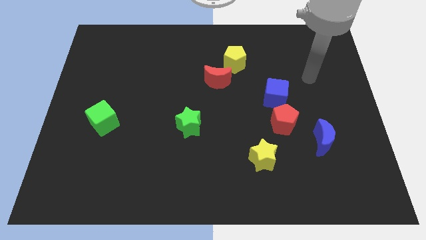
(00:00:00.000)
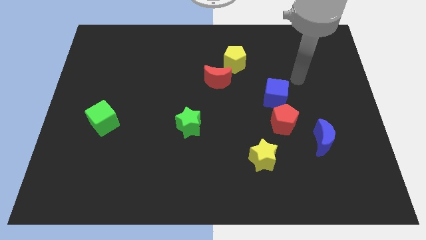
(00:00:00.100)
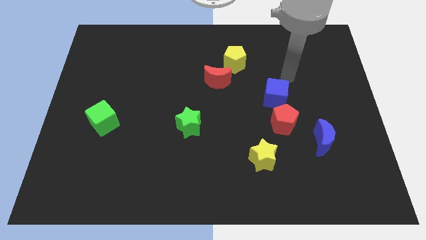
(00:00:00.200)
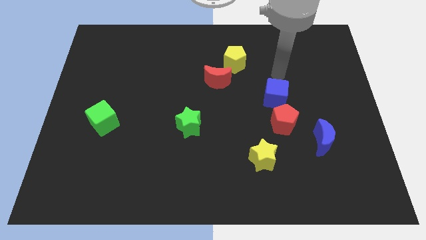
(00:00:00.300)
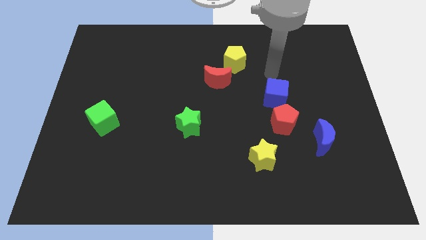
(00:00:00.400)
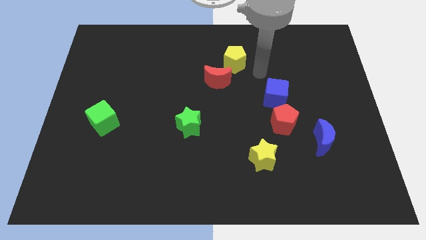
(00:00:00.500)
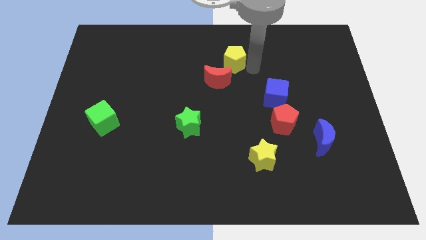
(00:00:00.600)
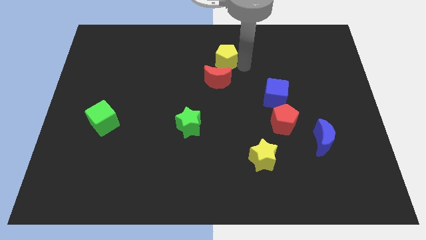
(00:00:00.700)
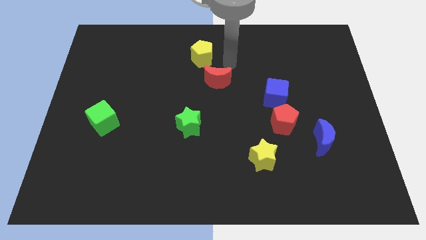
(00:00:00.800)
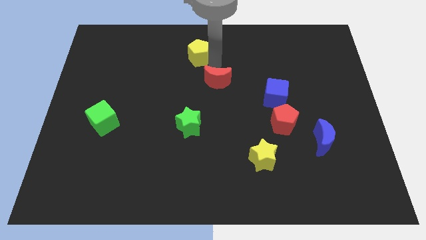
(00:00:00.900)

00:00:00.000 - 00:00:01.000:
separate the red moon from the yellow pentagon

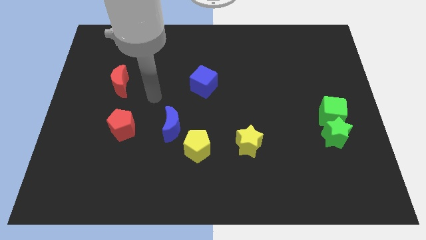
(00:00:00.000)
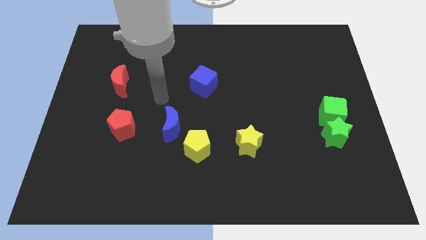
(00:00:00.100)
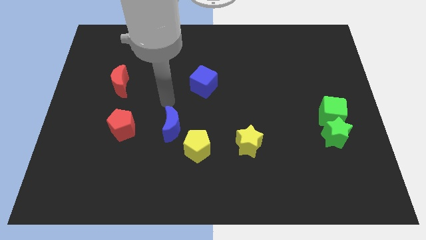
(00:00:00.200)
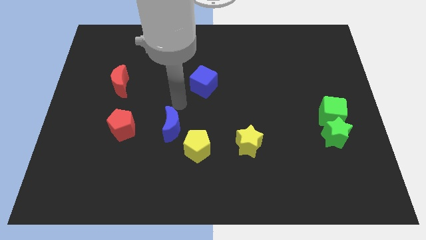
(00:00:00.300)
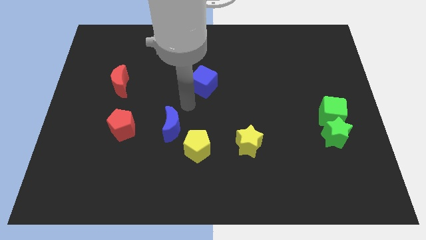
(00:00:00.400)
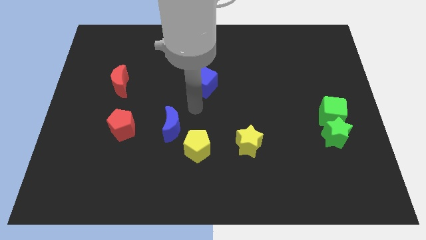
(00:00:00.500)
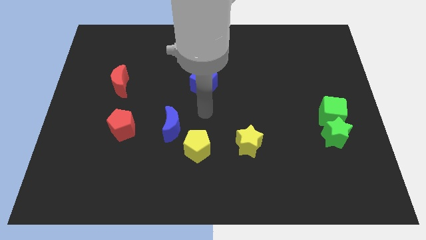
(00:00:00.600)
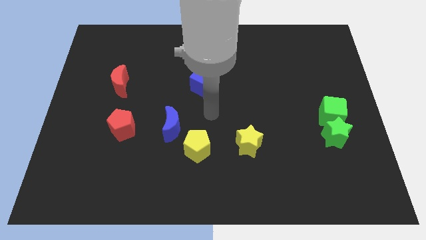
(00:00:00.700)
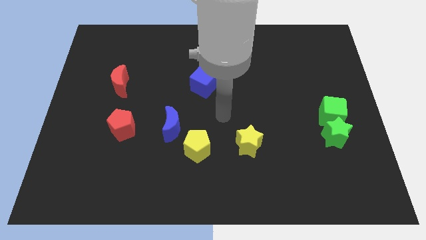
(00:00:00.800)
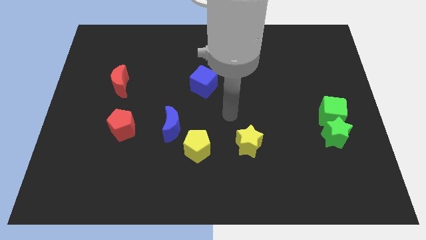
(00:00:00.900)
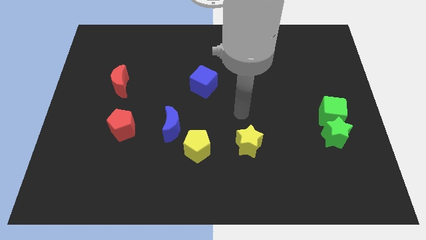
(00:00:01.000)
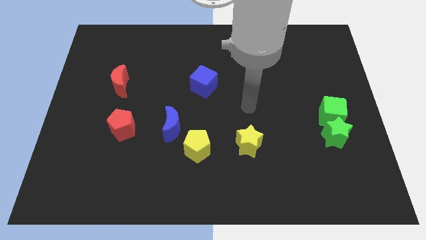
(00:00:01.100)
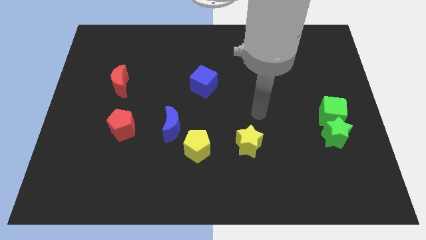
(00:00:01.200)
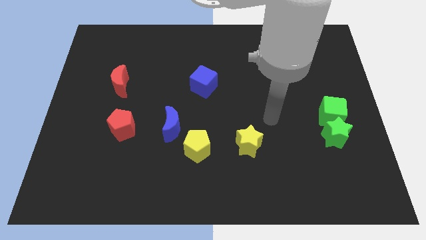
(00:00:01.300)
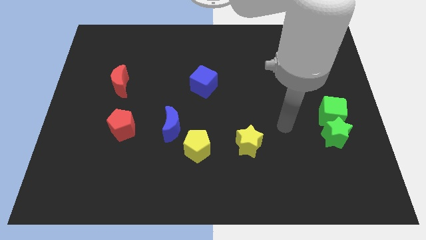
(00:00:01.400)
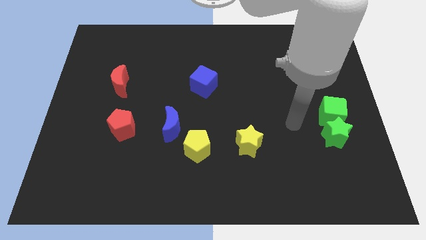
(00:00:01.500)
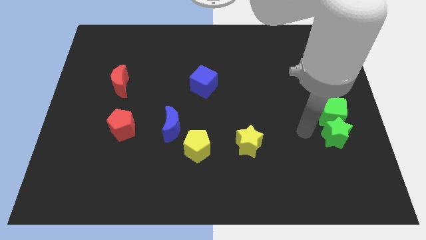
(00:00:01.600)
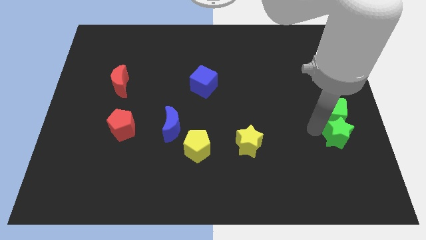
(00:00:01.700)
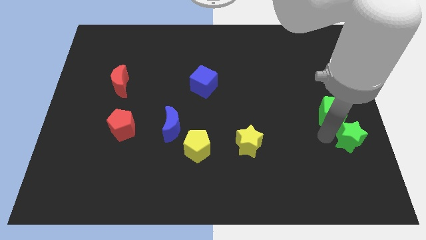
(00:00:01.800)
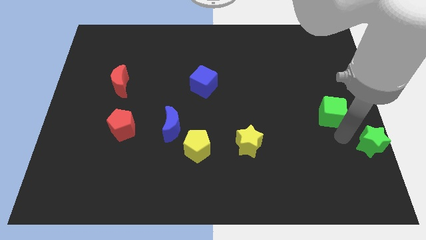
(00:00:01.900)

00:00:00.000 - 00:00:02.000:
pull the green cube apart from the green star

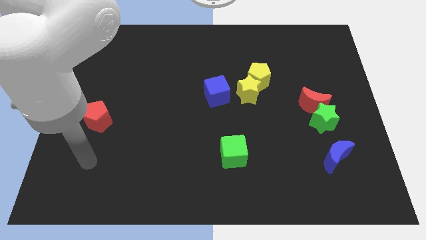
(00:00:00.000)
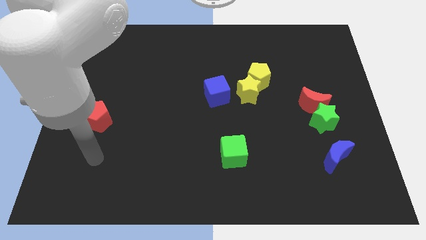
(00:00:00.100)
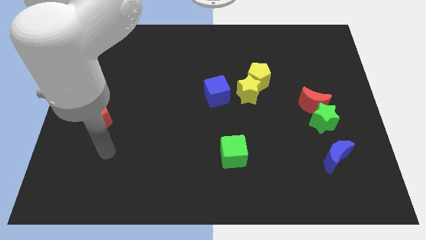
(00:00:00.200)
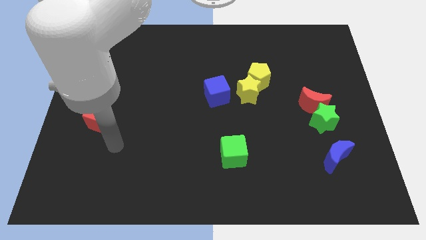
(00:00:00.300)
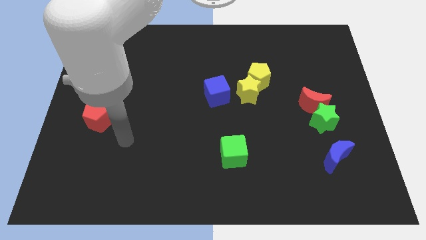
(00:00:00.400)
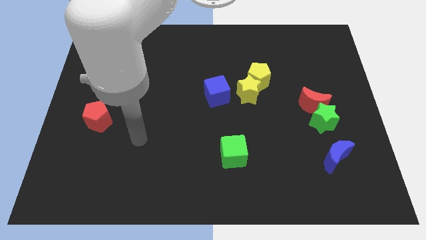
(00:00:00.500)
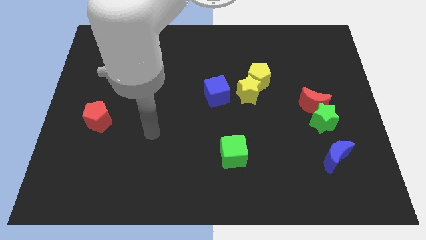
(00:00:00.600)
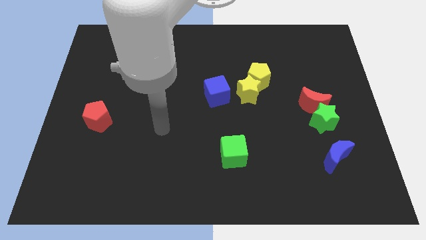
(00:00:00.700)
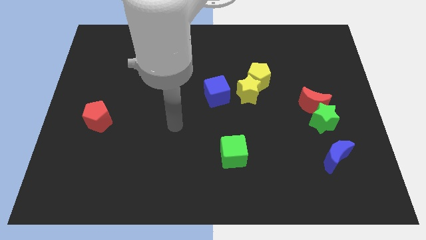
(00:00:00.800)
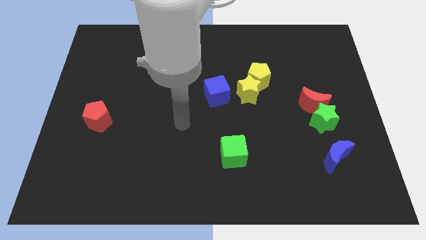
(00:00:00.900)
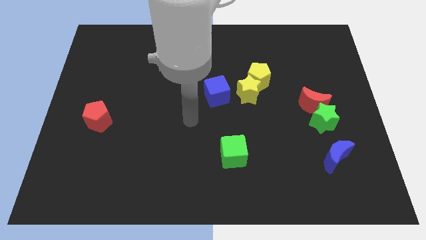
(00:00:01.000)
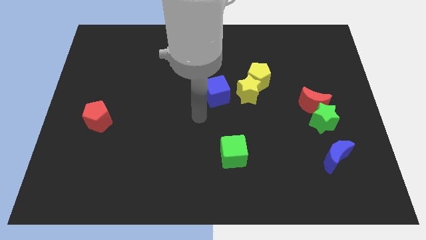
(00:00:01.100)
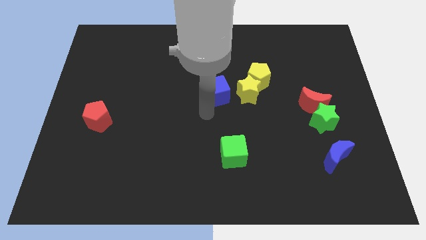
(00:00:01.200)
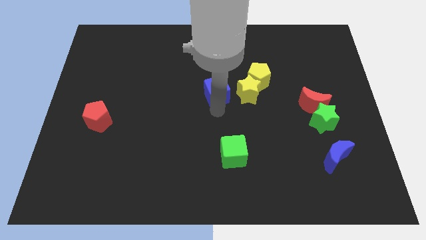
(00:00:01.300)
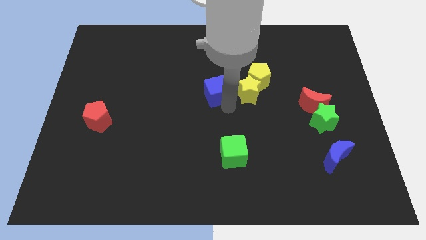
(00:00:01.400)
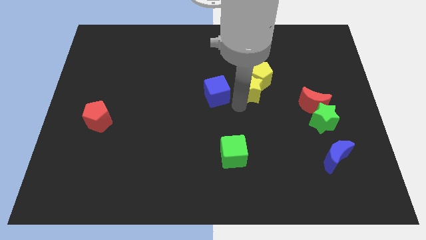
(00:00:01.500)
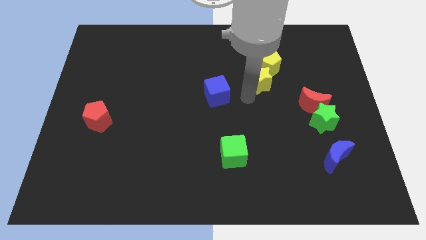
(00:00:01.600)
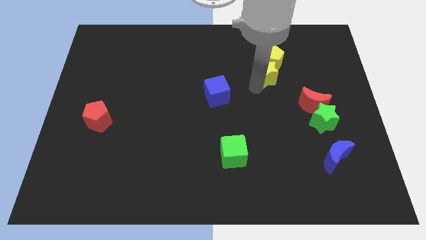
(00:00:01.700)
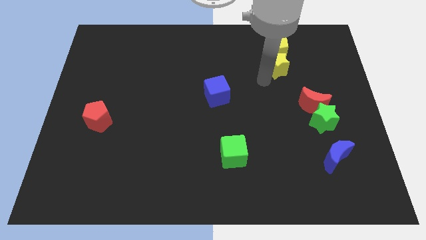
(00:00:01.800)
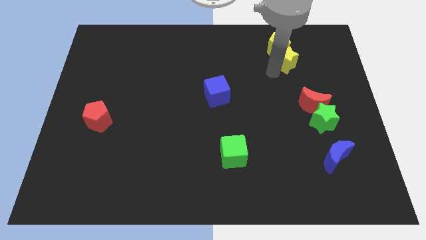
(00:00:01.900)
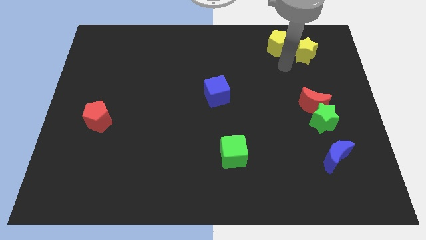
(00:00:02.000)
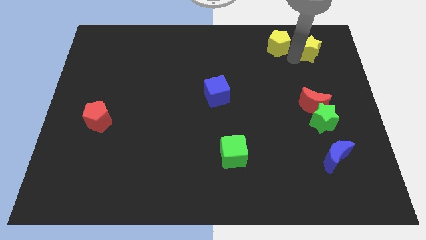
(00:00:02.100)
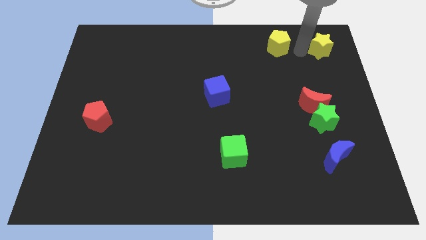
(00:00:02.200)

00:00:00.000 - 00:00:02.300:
move the yellow pentagon away from the yellow star

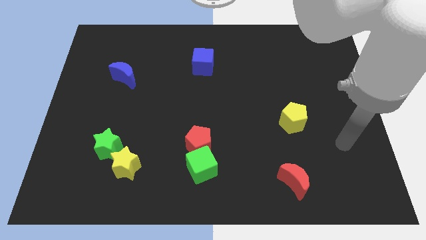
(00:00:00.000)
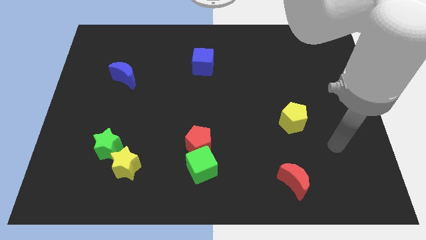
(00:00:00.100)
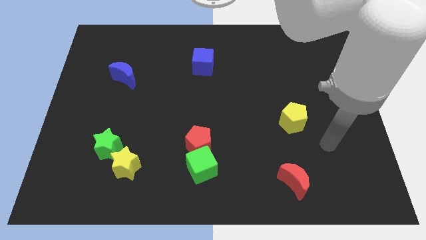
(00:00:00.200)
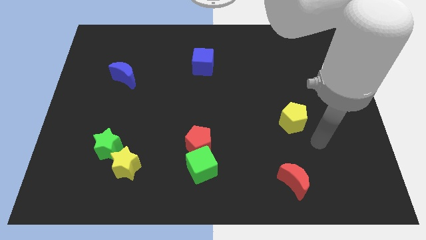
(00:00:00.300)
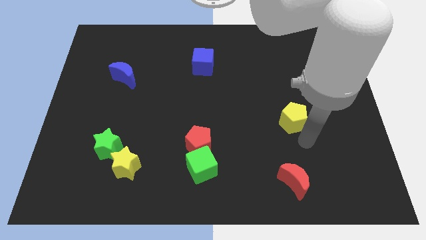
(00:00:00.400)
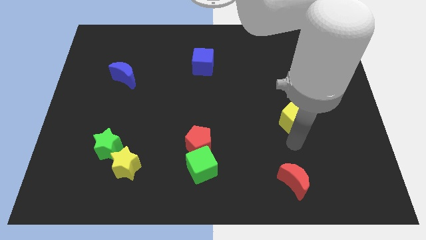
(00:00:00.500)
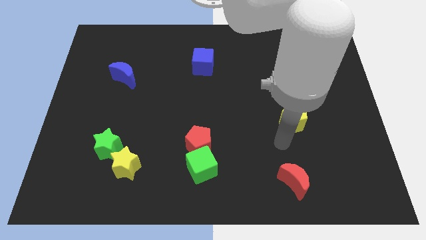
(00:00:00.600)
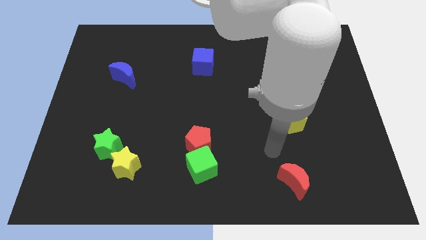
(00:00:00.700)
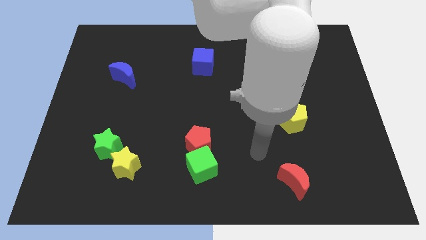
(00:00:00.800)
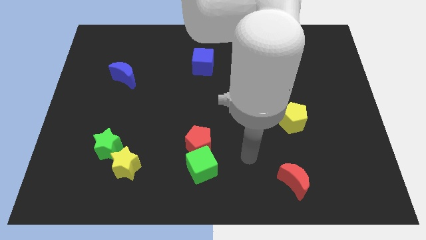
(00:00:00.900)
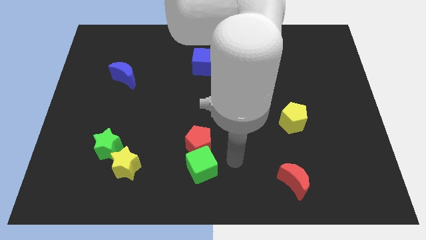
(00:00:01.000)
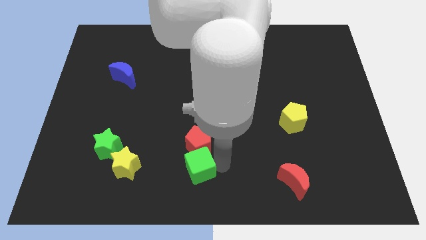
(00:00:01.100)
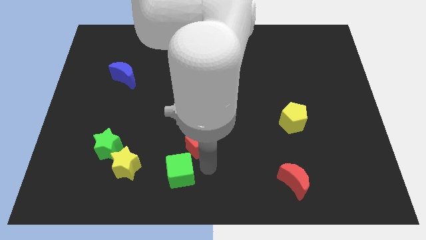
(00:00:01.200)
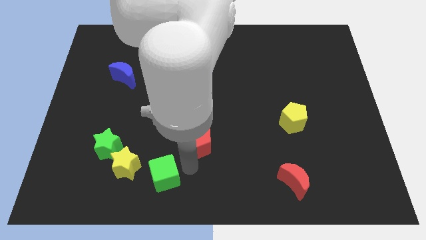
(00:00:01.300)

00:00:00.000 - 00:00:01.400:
pull the red pentagon apart from the green cube

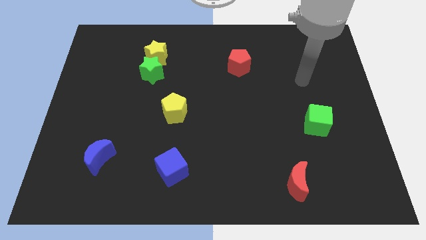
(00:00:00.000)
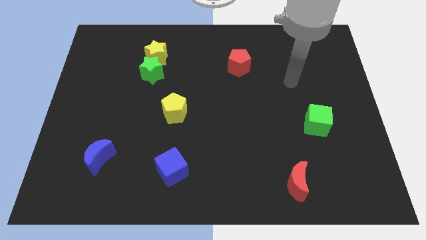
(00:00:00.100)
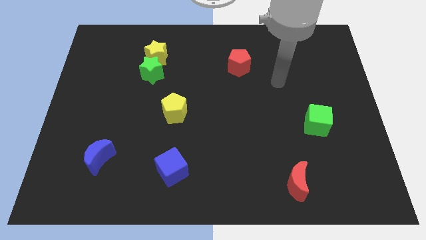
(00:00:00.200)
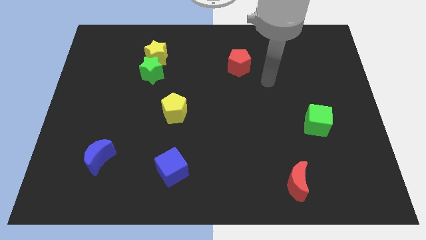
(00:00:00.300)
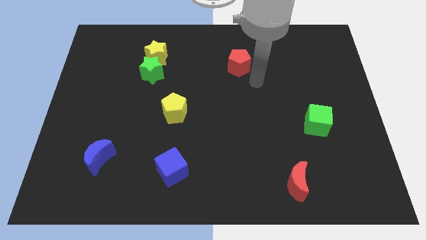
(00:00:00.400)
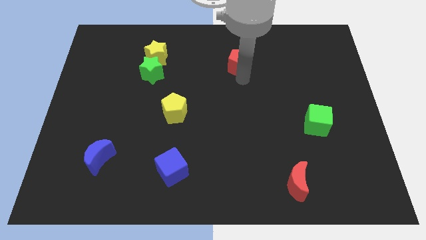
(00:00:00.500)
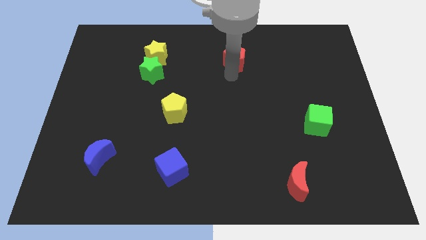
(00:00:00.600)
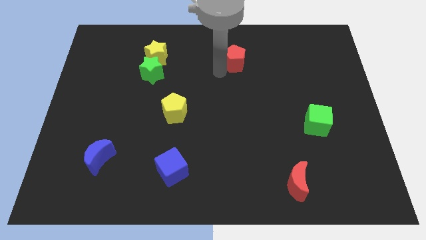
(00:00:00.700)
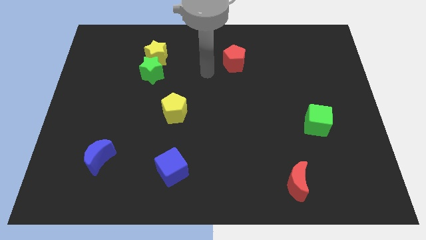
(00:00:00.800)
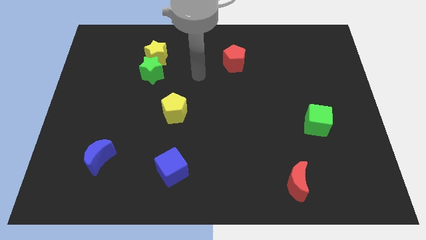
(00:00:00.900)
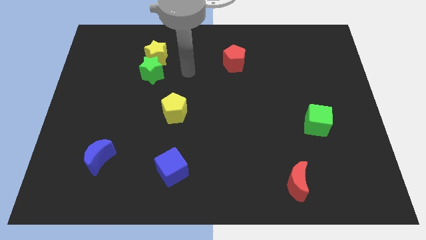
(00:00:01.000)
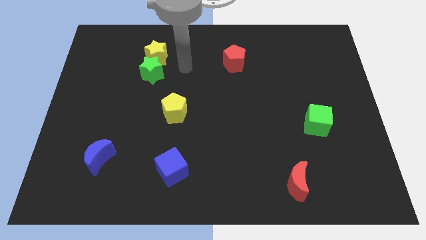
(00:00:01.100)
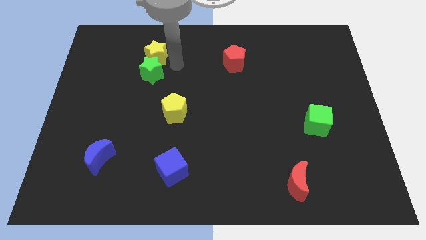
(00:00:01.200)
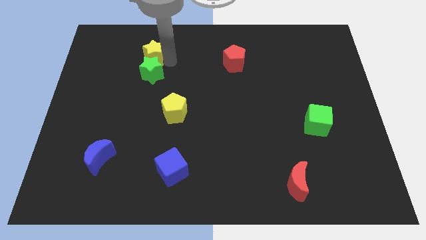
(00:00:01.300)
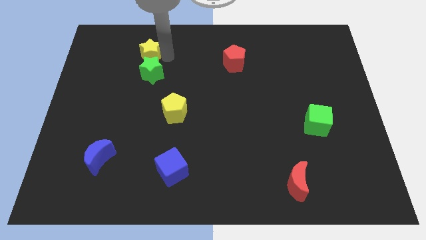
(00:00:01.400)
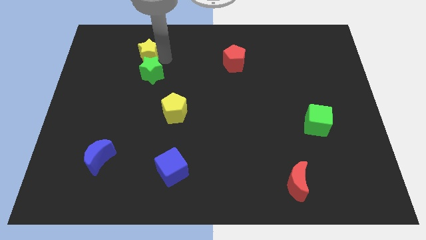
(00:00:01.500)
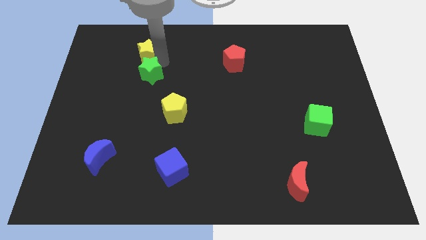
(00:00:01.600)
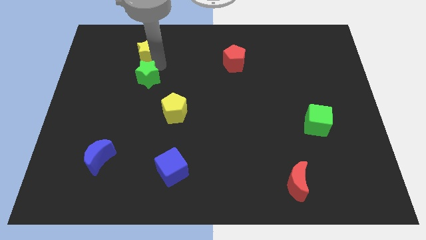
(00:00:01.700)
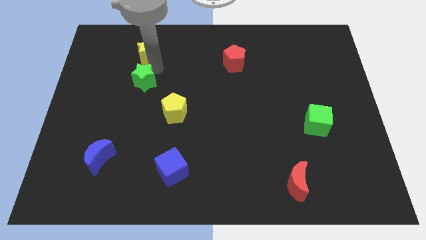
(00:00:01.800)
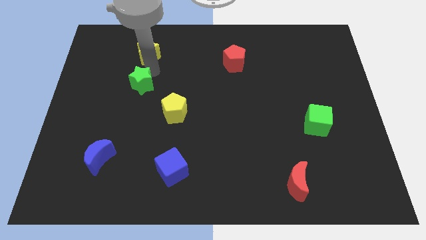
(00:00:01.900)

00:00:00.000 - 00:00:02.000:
pull the green star apart from the yellow star

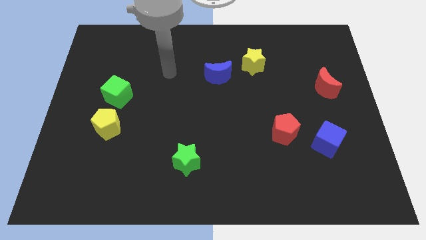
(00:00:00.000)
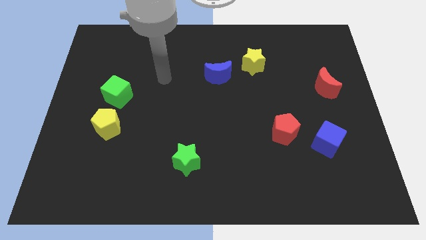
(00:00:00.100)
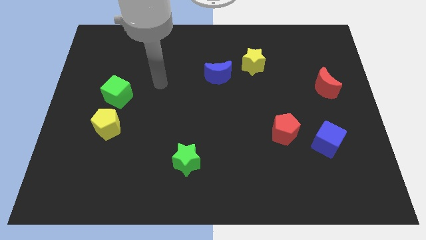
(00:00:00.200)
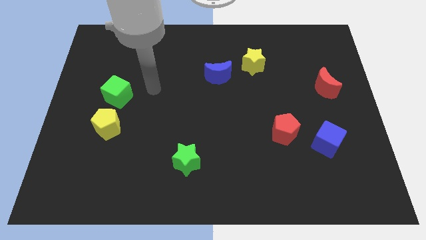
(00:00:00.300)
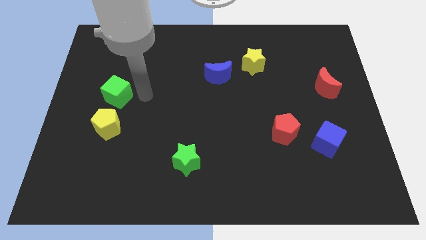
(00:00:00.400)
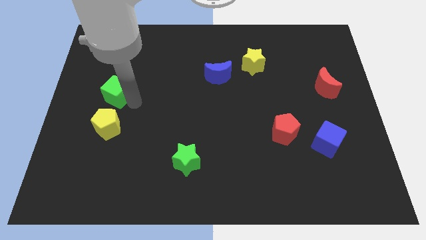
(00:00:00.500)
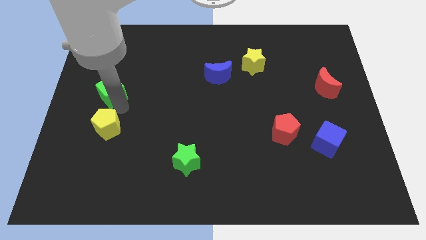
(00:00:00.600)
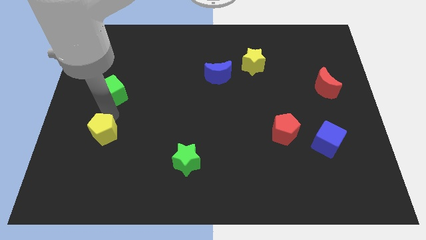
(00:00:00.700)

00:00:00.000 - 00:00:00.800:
pull the green cube apart from the yellow pentagon
